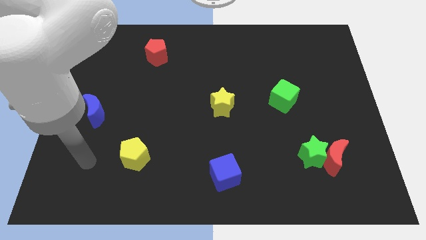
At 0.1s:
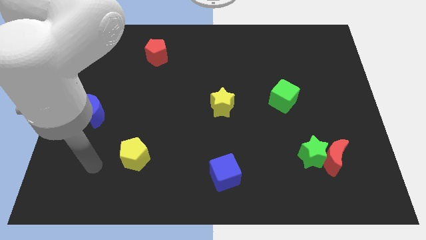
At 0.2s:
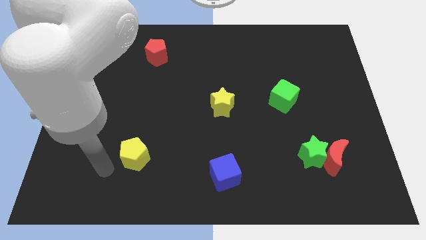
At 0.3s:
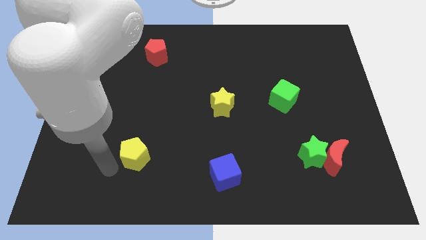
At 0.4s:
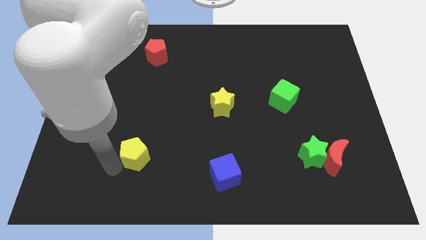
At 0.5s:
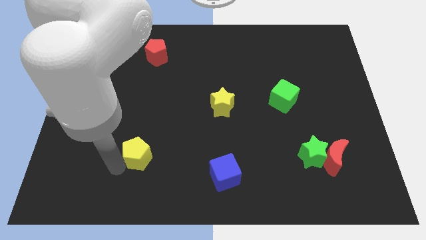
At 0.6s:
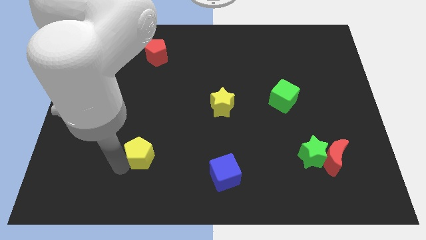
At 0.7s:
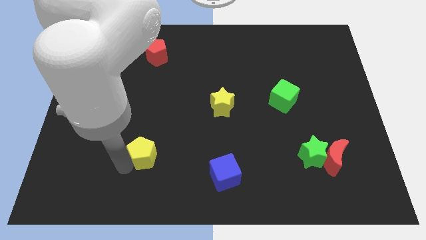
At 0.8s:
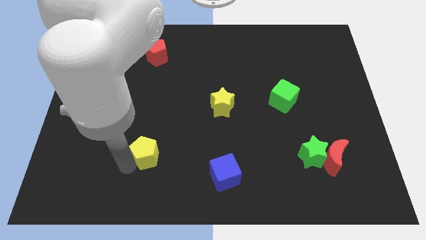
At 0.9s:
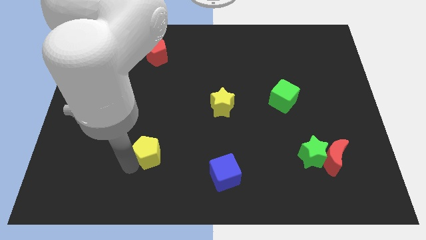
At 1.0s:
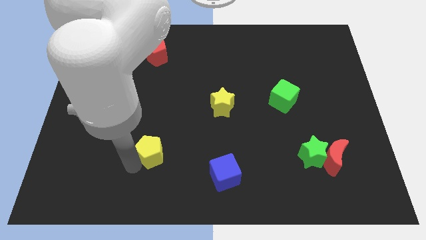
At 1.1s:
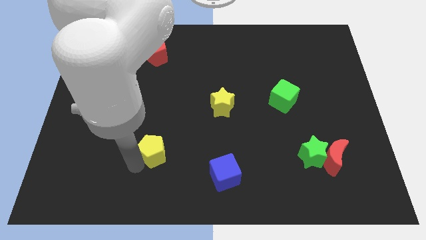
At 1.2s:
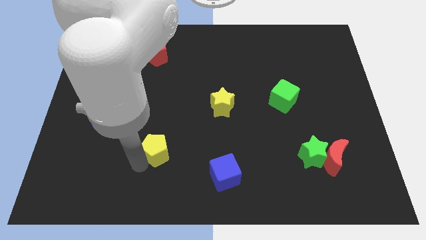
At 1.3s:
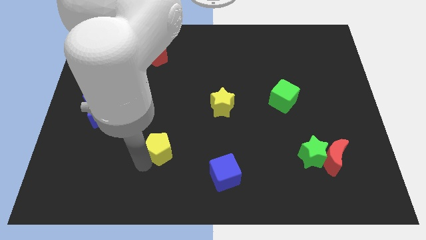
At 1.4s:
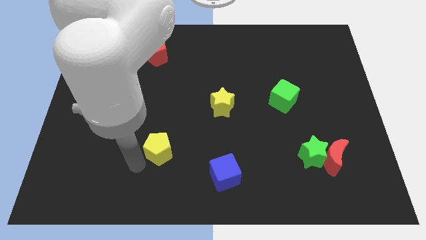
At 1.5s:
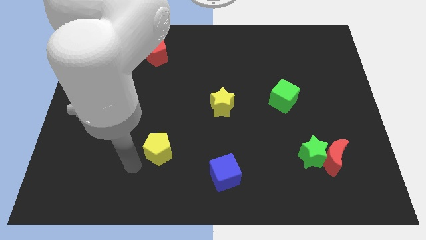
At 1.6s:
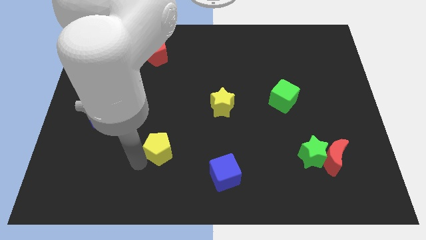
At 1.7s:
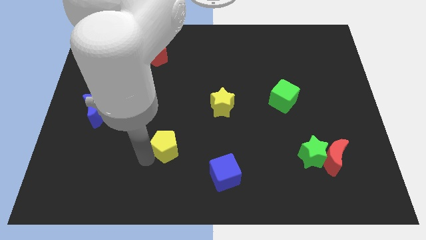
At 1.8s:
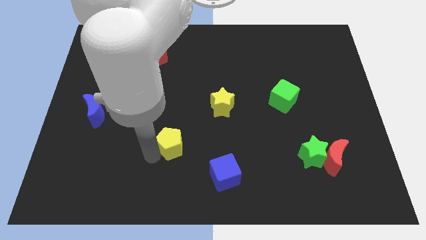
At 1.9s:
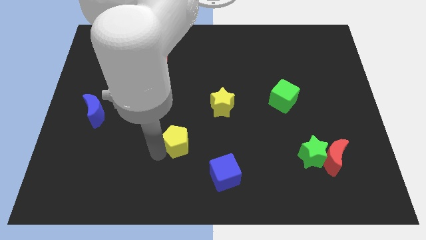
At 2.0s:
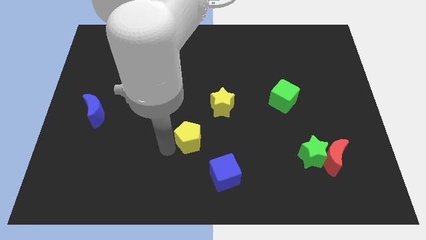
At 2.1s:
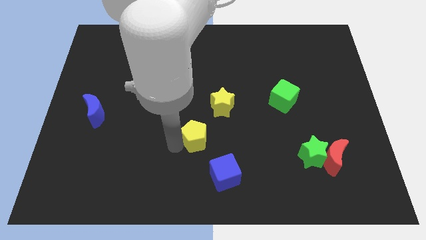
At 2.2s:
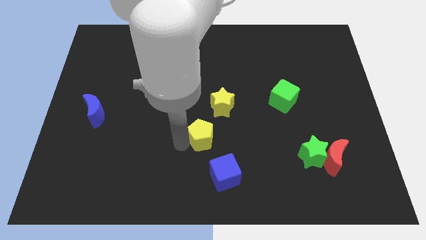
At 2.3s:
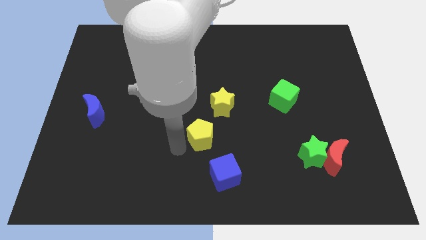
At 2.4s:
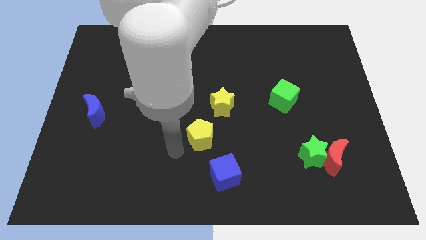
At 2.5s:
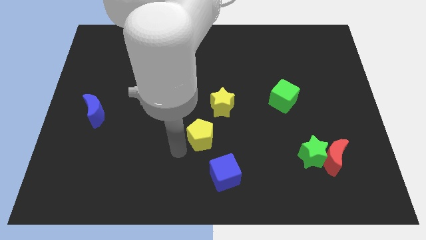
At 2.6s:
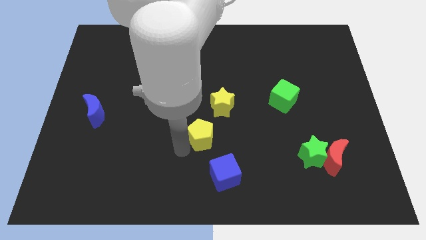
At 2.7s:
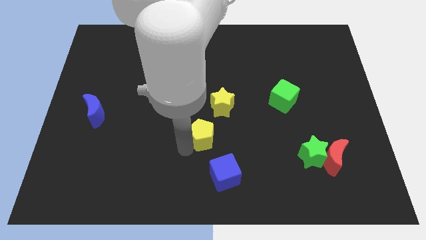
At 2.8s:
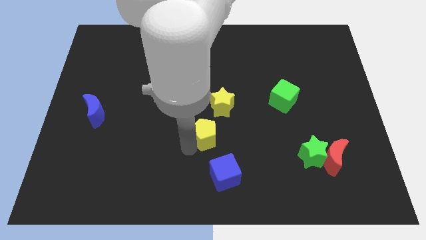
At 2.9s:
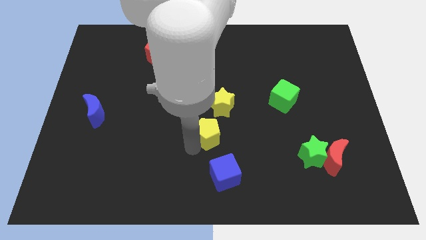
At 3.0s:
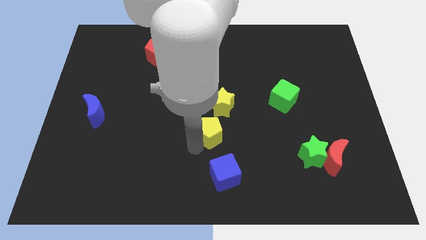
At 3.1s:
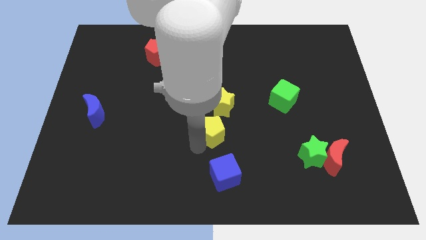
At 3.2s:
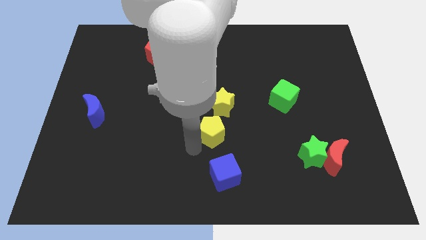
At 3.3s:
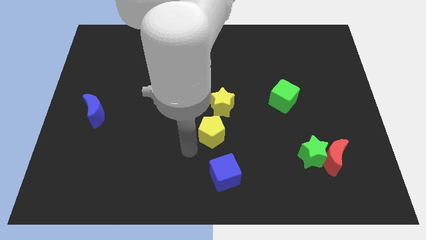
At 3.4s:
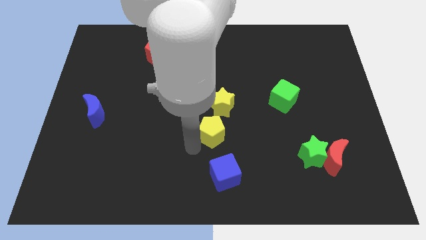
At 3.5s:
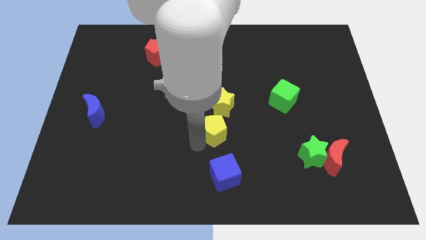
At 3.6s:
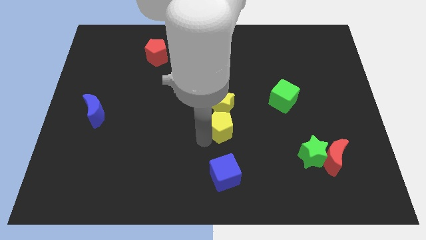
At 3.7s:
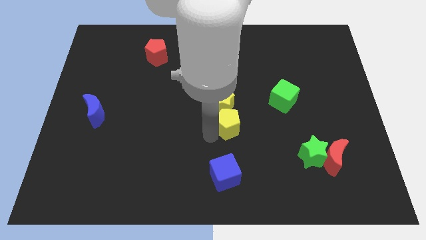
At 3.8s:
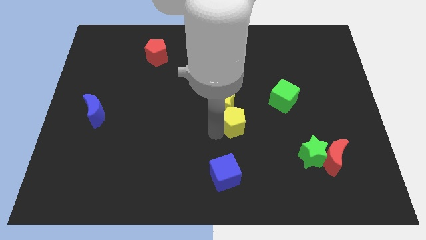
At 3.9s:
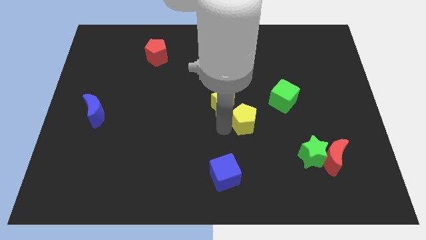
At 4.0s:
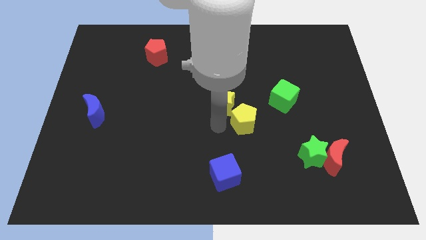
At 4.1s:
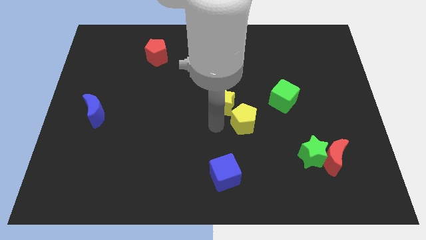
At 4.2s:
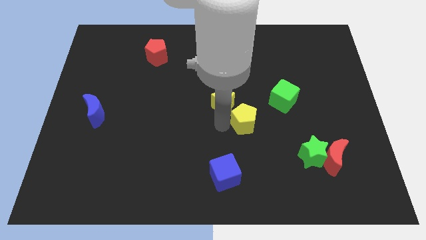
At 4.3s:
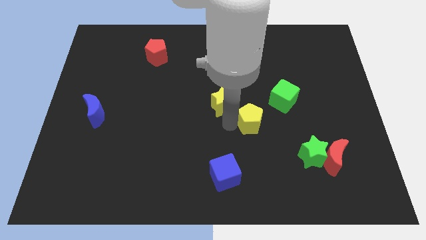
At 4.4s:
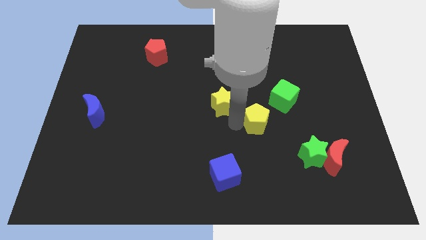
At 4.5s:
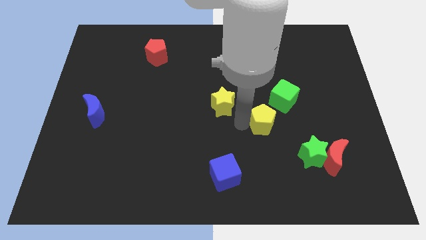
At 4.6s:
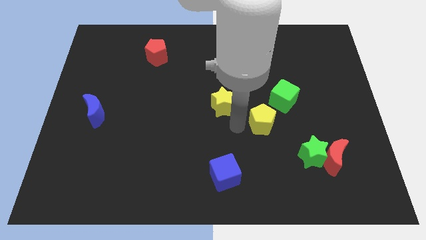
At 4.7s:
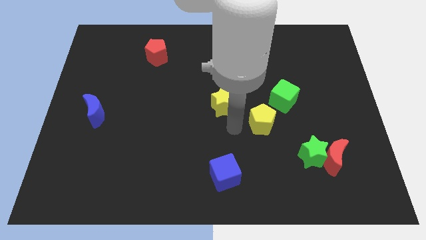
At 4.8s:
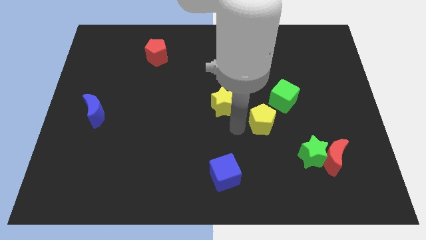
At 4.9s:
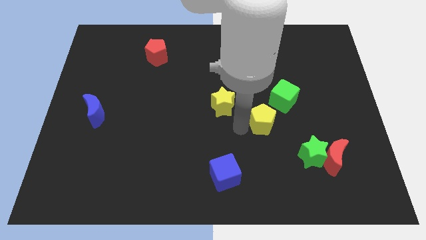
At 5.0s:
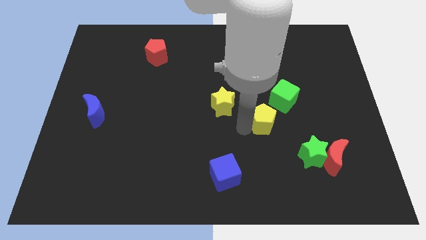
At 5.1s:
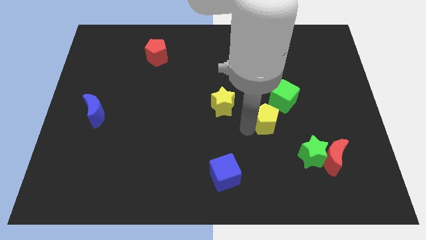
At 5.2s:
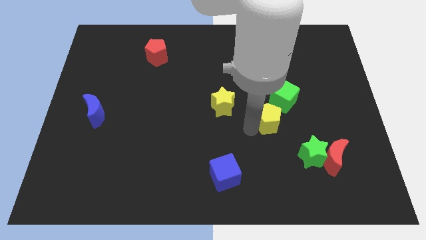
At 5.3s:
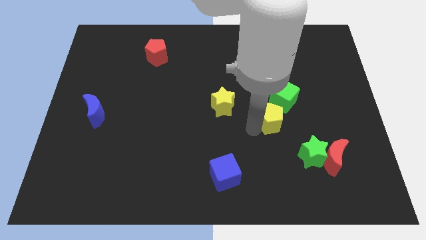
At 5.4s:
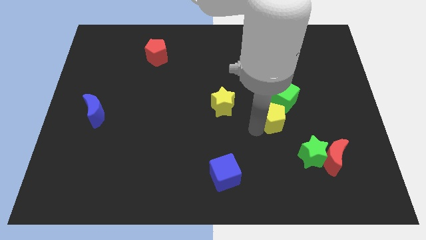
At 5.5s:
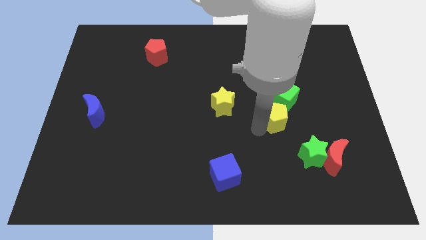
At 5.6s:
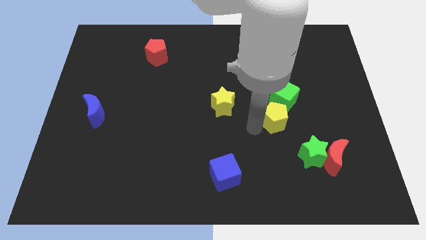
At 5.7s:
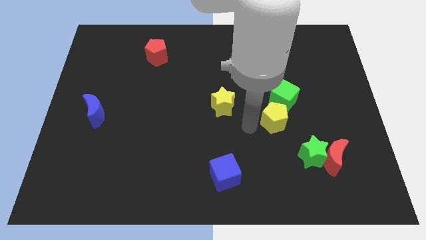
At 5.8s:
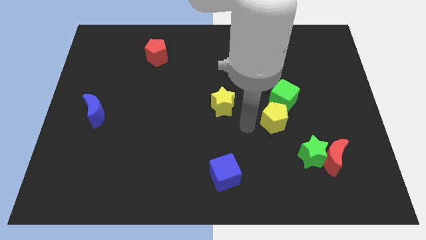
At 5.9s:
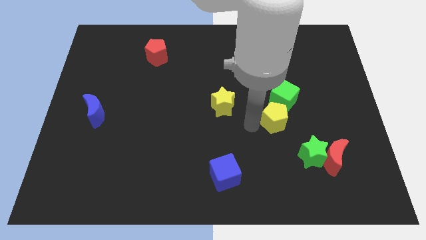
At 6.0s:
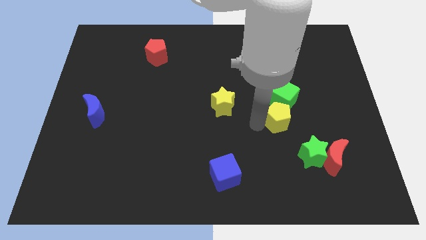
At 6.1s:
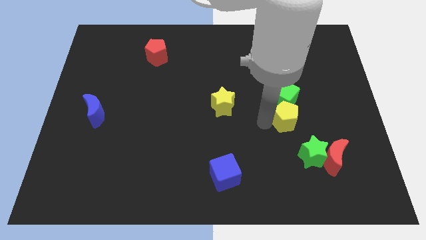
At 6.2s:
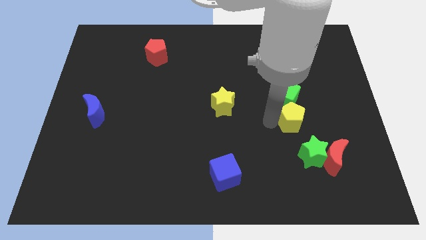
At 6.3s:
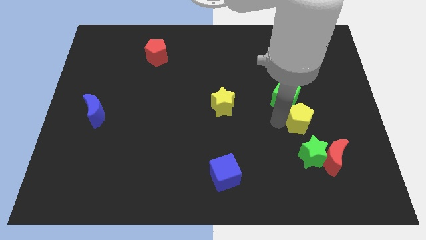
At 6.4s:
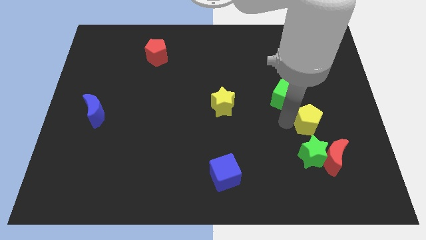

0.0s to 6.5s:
slide the yellow pentagon above the red moon

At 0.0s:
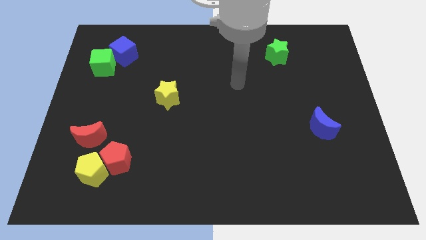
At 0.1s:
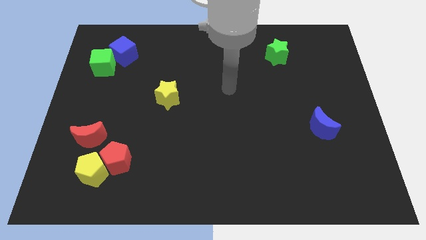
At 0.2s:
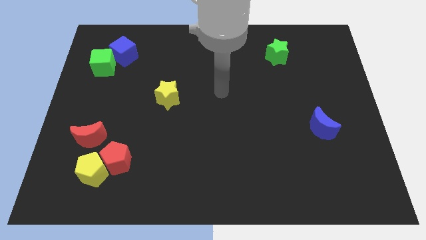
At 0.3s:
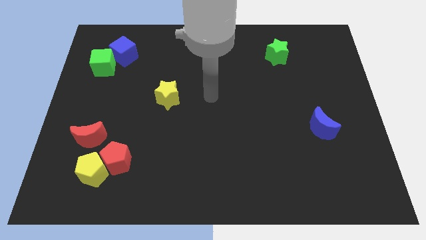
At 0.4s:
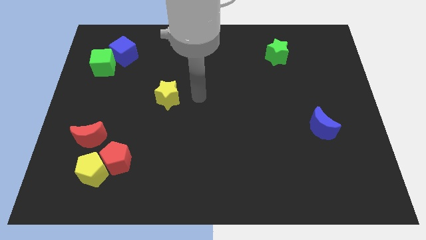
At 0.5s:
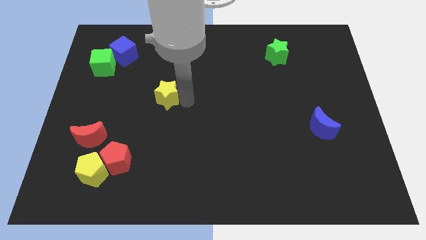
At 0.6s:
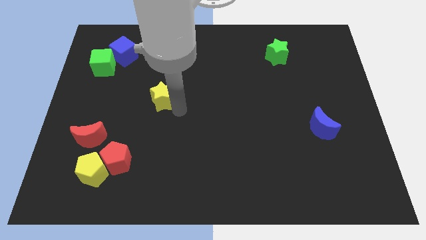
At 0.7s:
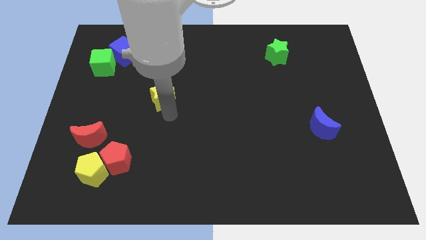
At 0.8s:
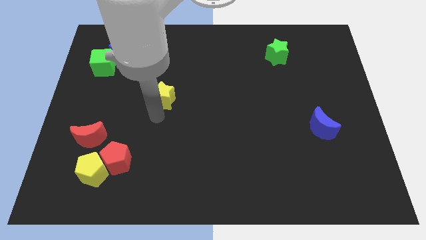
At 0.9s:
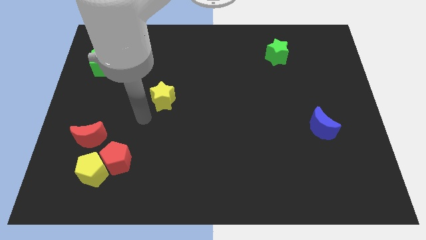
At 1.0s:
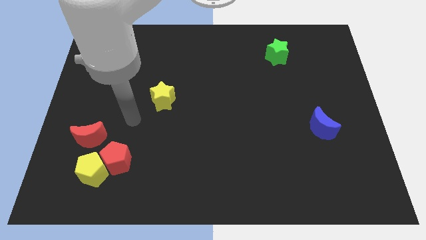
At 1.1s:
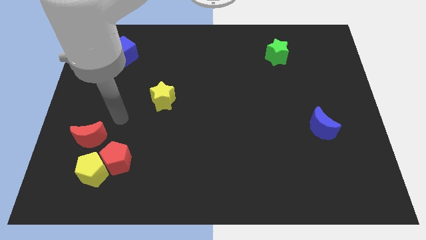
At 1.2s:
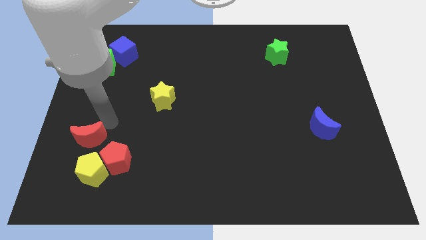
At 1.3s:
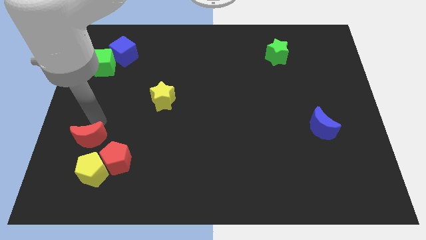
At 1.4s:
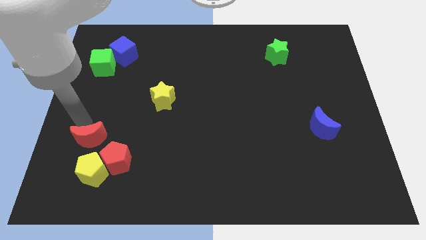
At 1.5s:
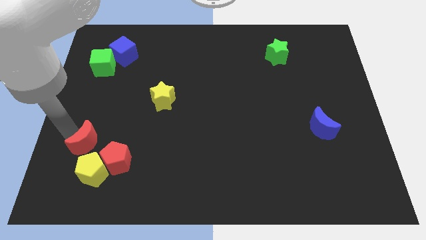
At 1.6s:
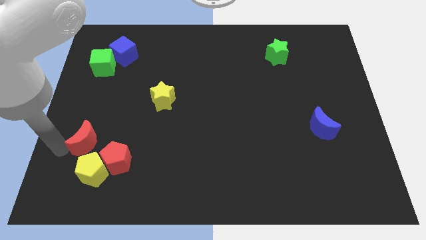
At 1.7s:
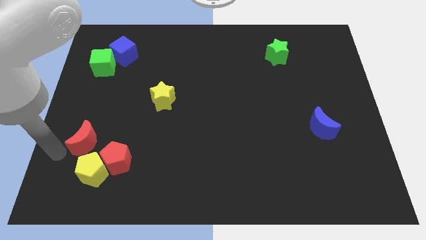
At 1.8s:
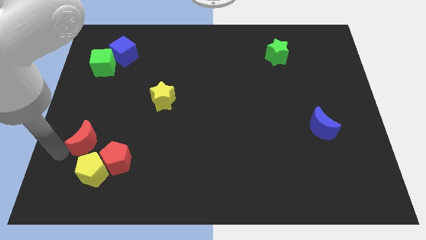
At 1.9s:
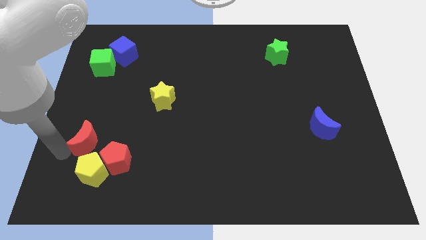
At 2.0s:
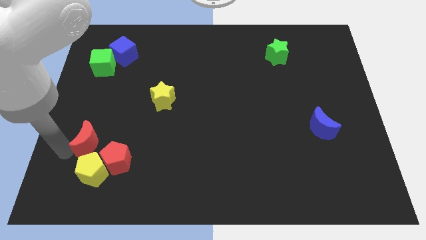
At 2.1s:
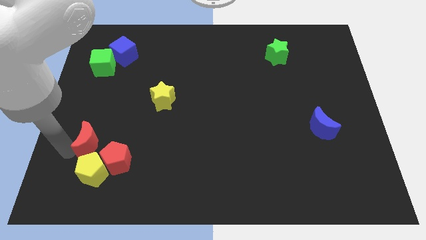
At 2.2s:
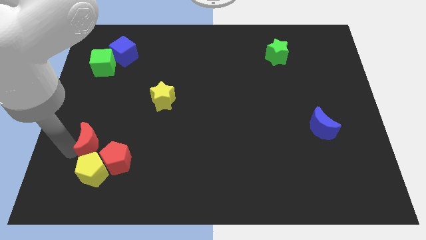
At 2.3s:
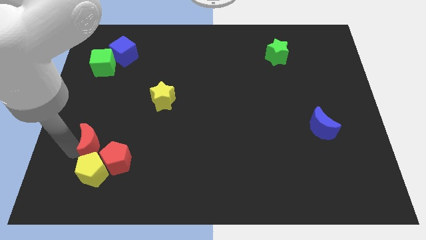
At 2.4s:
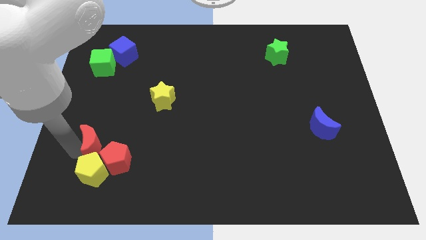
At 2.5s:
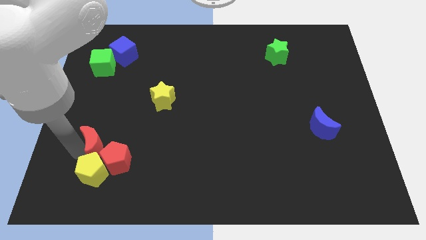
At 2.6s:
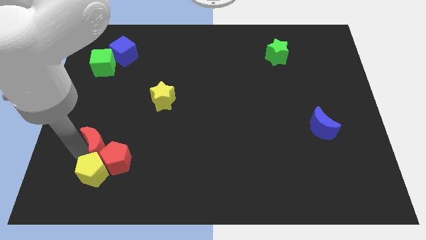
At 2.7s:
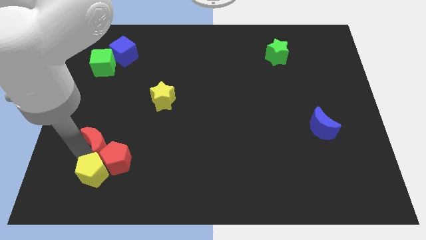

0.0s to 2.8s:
push the red moon above the red pentagon
